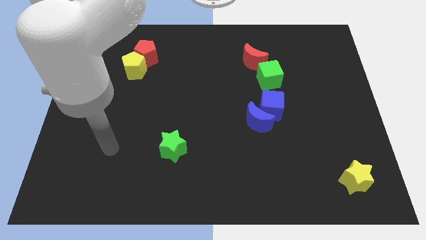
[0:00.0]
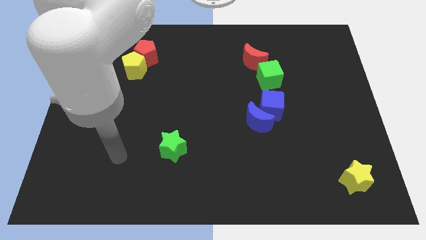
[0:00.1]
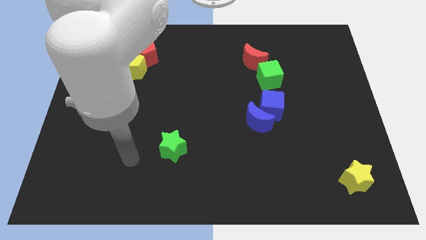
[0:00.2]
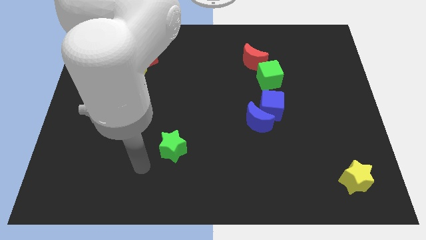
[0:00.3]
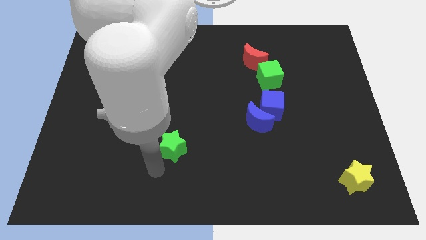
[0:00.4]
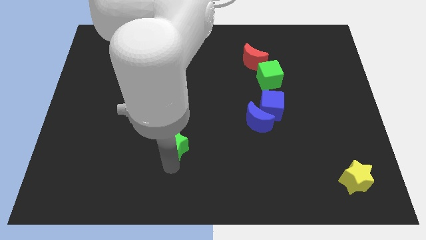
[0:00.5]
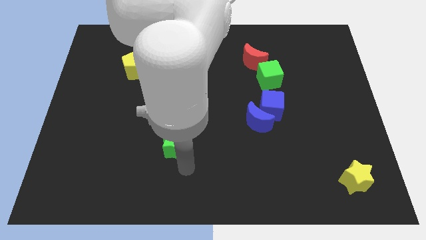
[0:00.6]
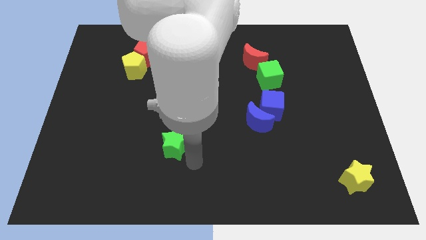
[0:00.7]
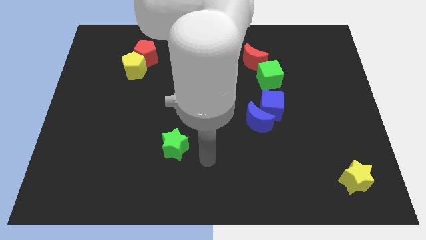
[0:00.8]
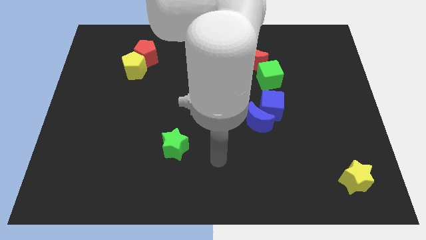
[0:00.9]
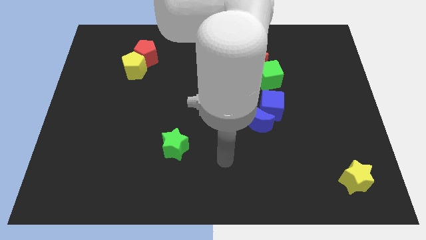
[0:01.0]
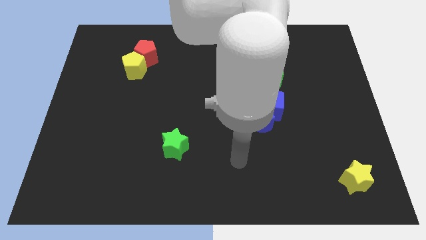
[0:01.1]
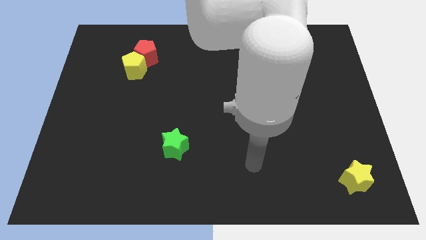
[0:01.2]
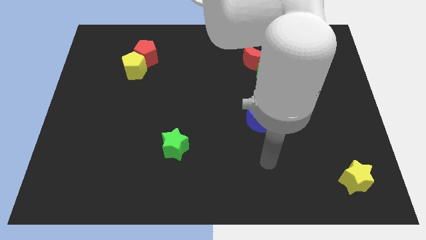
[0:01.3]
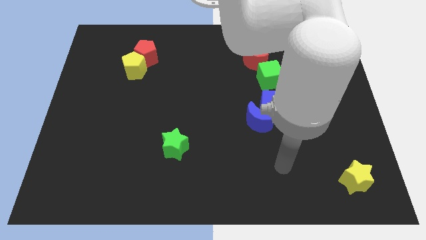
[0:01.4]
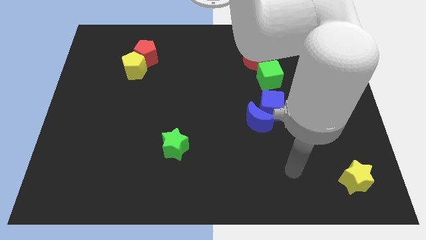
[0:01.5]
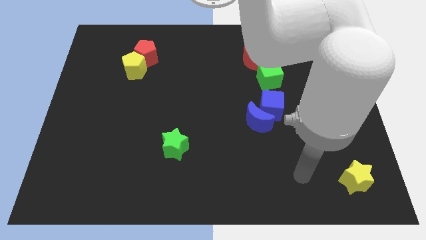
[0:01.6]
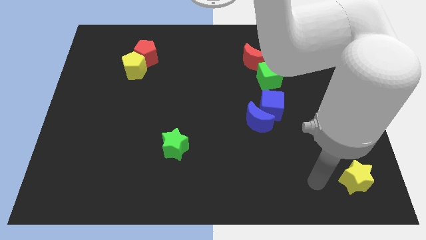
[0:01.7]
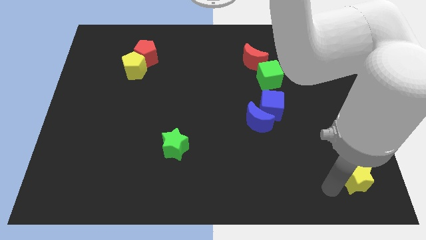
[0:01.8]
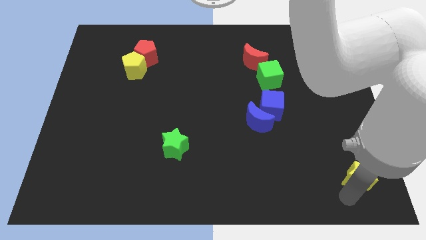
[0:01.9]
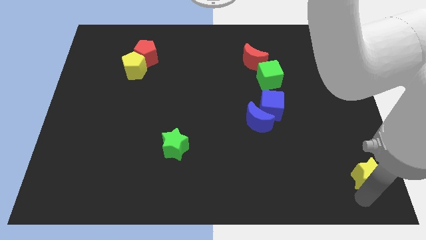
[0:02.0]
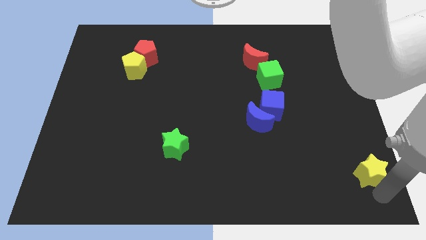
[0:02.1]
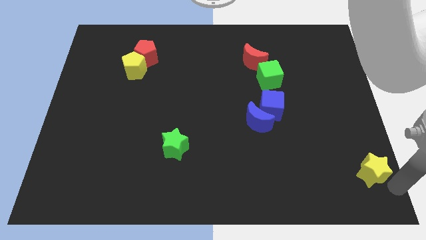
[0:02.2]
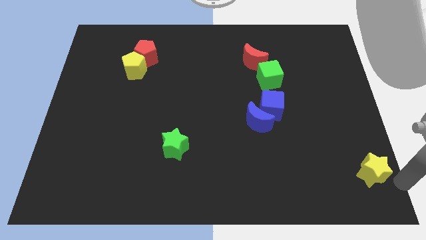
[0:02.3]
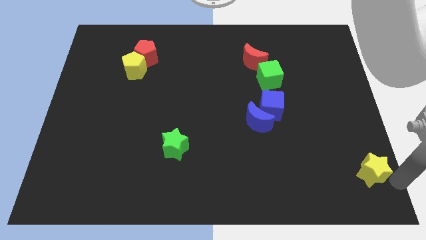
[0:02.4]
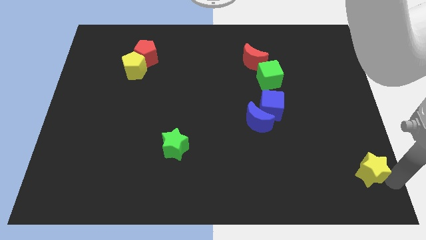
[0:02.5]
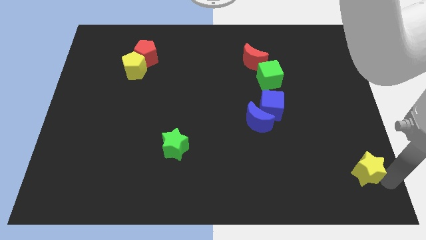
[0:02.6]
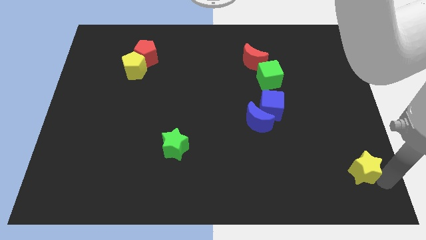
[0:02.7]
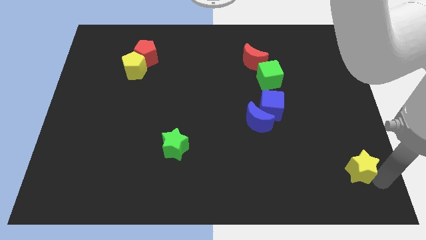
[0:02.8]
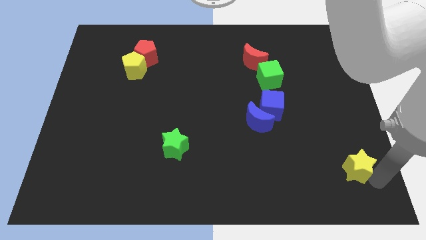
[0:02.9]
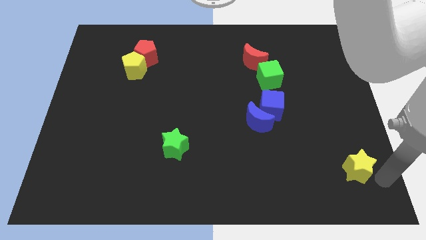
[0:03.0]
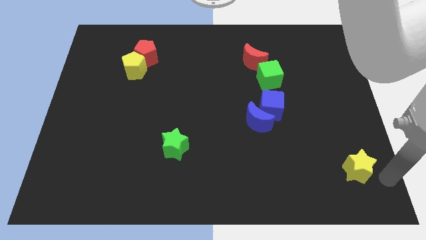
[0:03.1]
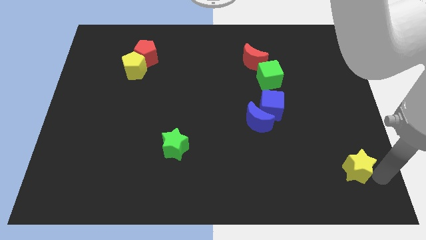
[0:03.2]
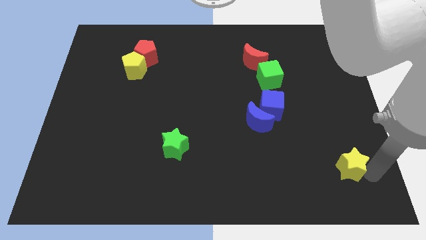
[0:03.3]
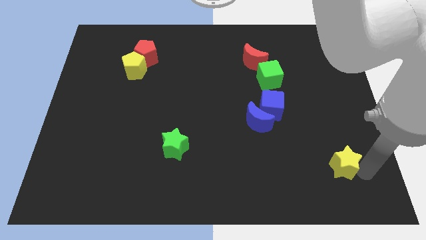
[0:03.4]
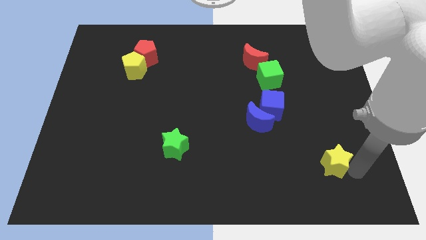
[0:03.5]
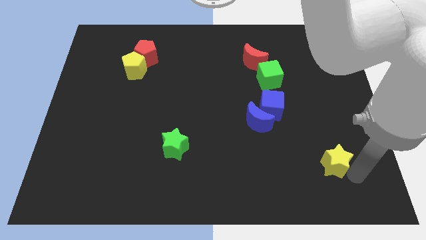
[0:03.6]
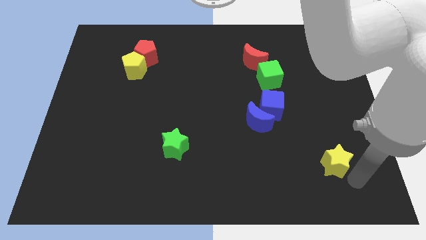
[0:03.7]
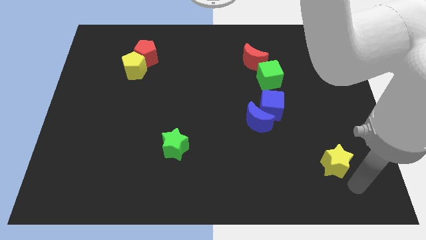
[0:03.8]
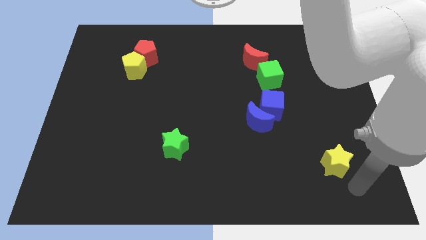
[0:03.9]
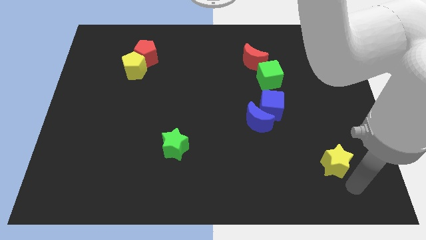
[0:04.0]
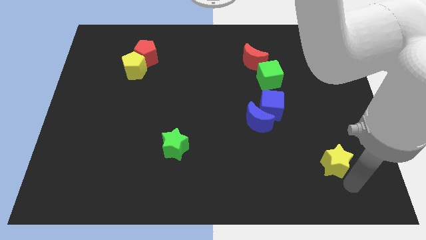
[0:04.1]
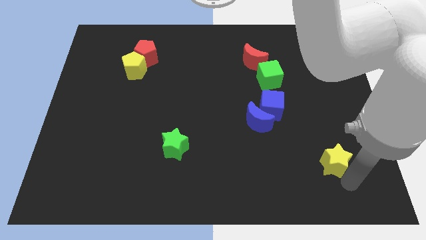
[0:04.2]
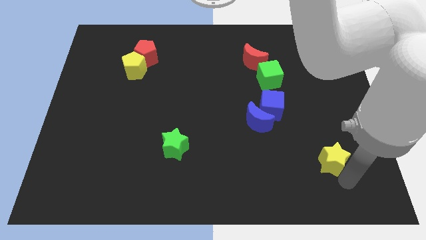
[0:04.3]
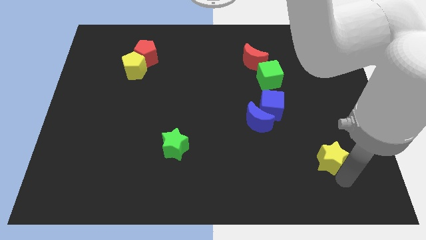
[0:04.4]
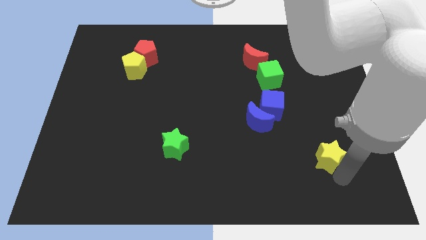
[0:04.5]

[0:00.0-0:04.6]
slide the yellow star upwards and left diagonally a little

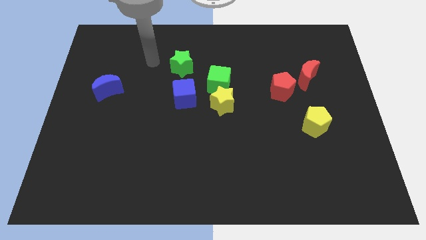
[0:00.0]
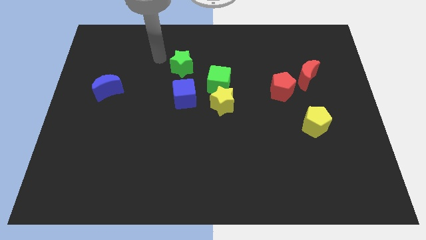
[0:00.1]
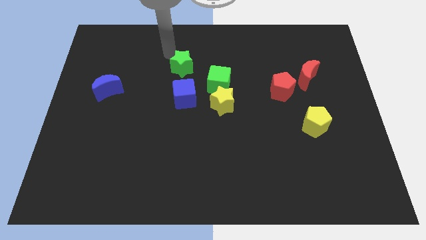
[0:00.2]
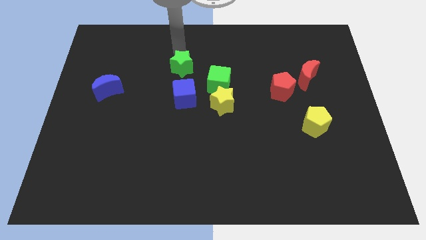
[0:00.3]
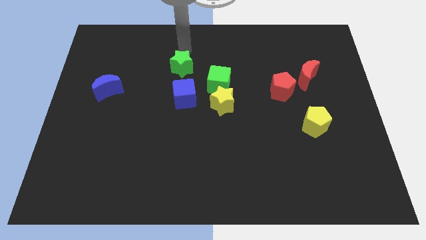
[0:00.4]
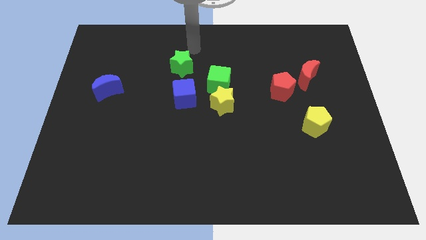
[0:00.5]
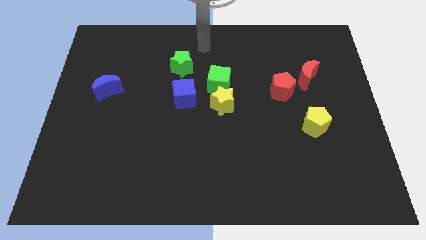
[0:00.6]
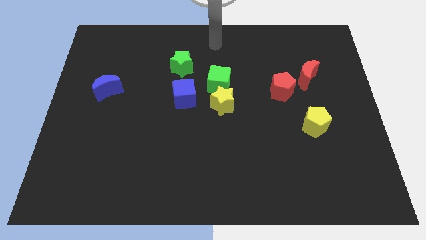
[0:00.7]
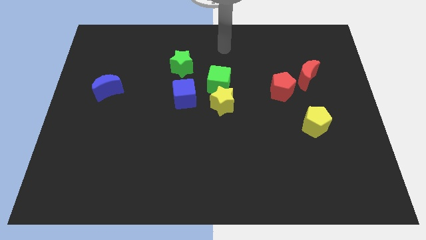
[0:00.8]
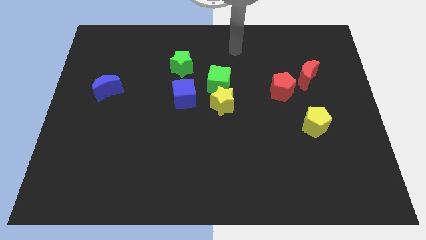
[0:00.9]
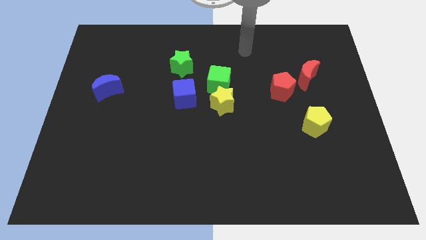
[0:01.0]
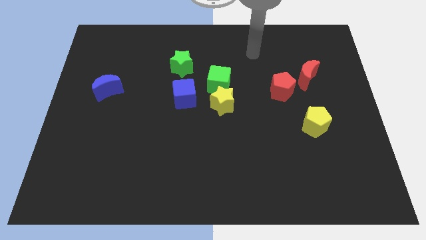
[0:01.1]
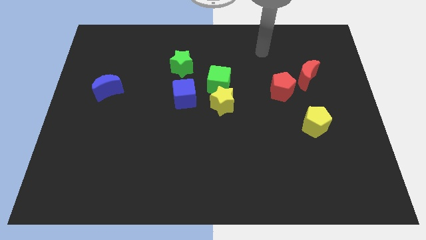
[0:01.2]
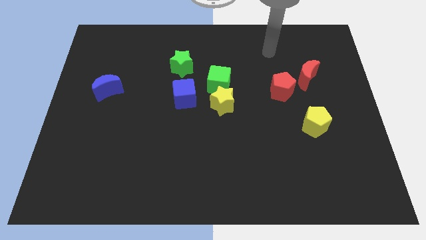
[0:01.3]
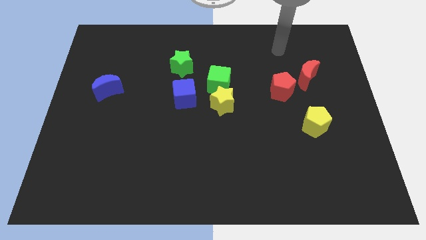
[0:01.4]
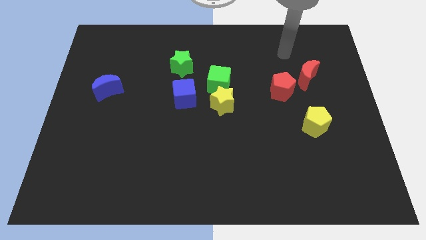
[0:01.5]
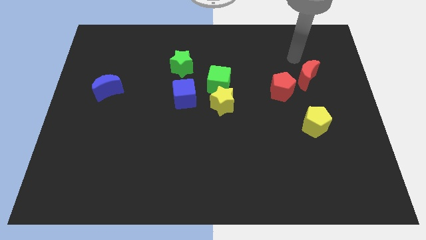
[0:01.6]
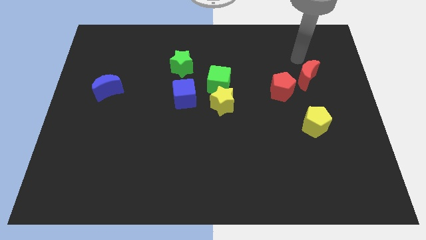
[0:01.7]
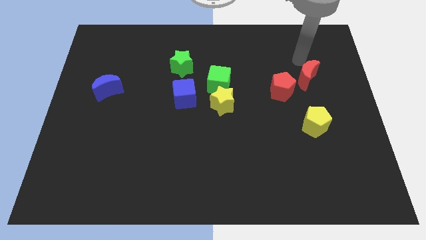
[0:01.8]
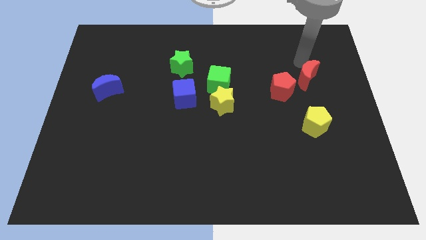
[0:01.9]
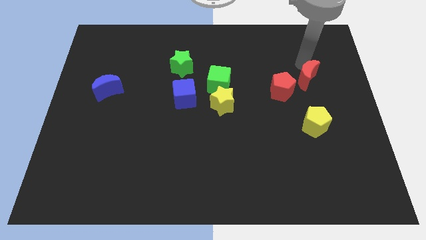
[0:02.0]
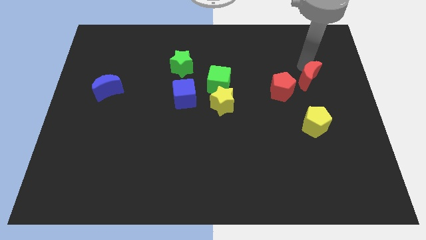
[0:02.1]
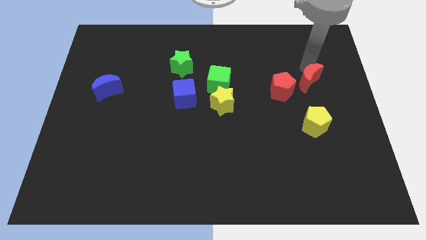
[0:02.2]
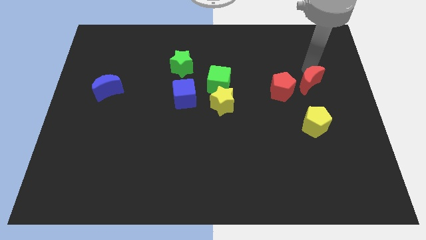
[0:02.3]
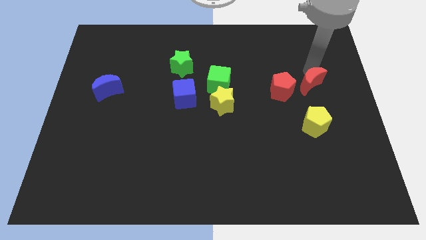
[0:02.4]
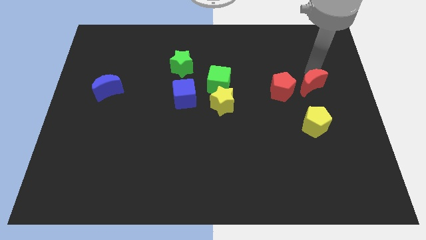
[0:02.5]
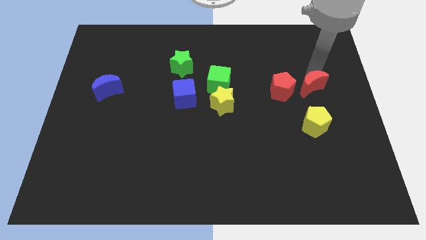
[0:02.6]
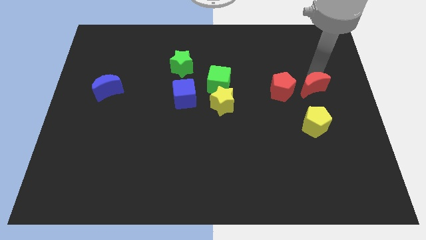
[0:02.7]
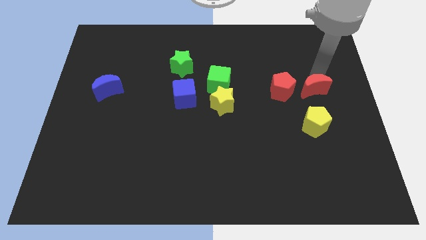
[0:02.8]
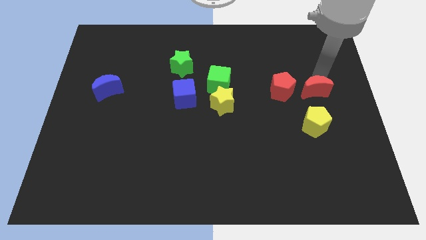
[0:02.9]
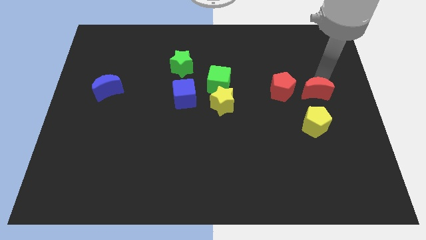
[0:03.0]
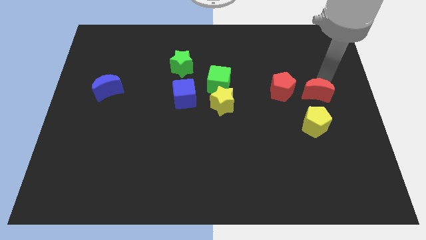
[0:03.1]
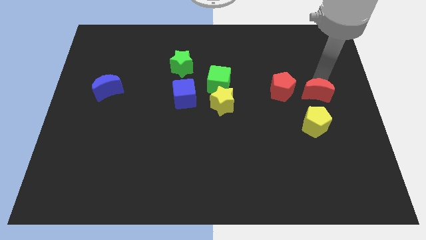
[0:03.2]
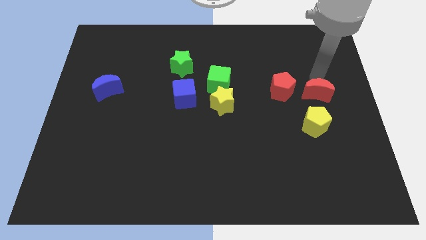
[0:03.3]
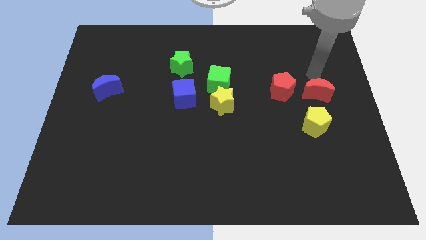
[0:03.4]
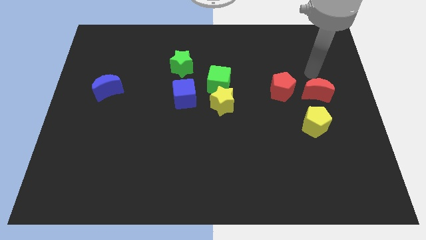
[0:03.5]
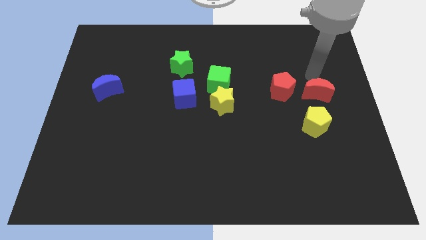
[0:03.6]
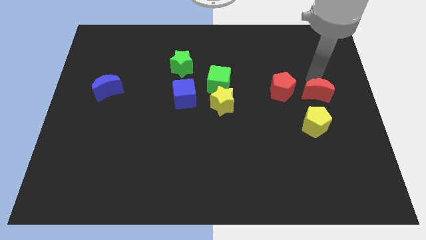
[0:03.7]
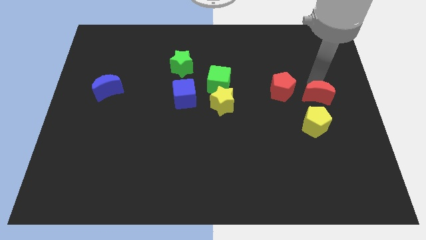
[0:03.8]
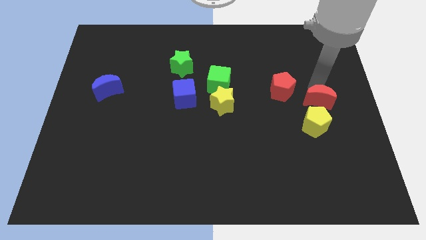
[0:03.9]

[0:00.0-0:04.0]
slightly slide the red moon down
